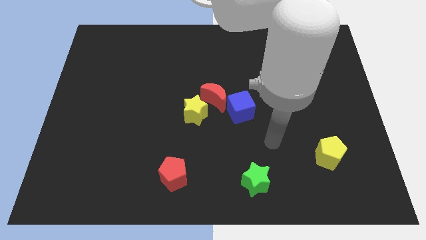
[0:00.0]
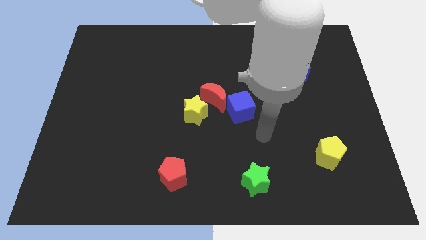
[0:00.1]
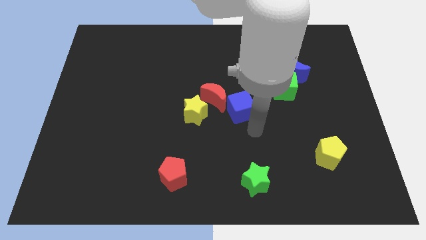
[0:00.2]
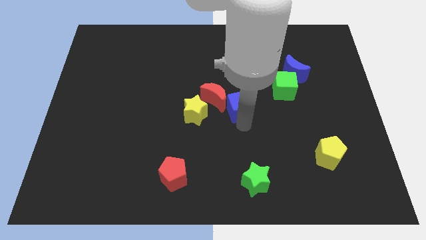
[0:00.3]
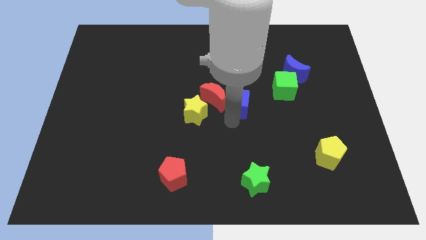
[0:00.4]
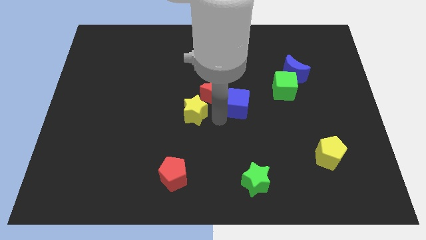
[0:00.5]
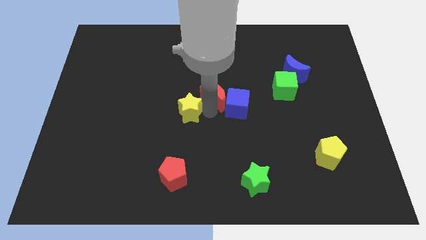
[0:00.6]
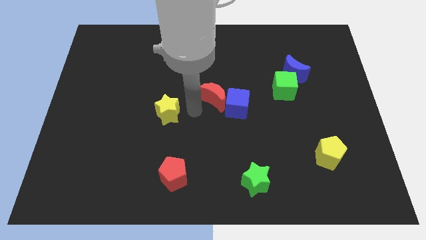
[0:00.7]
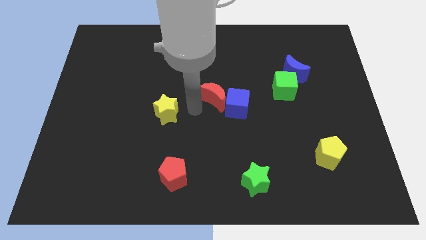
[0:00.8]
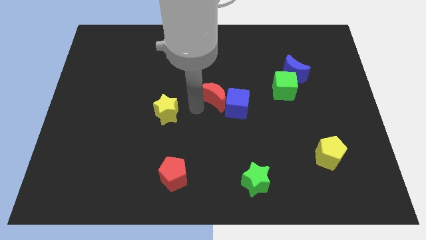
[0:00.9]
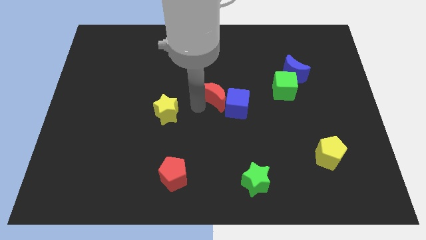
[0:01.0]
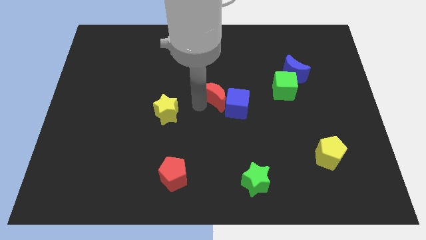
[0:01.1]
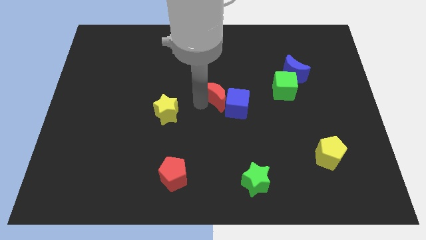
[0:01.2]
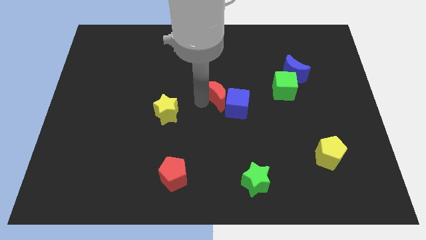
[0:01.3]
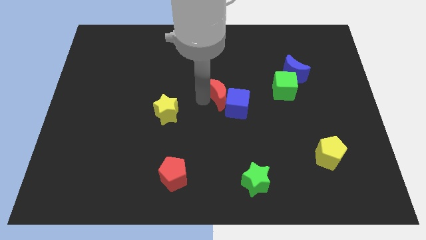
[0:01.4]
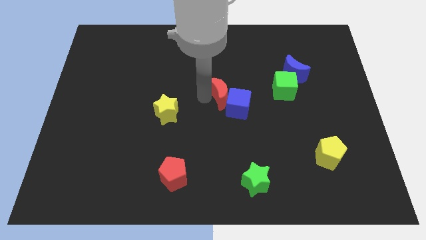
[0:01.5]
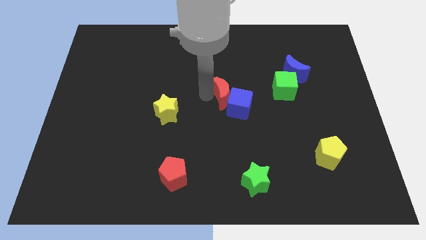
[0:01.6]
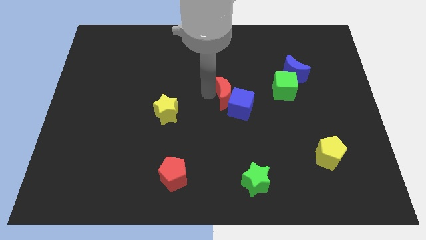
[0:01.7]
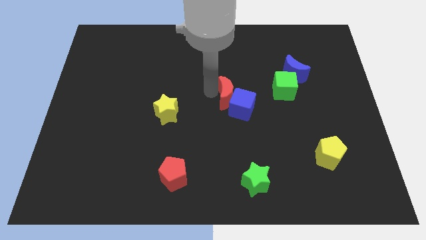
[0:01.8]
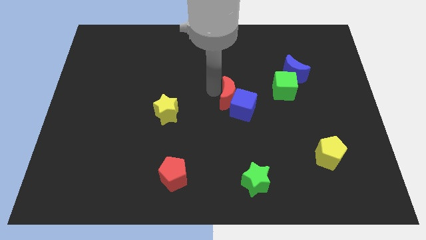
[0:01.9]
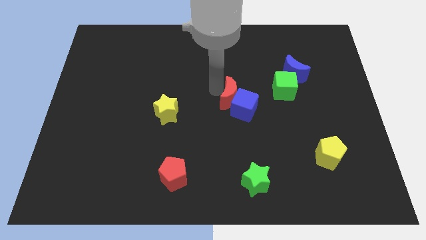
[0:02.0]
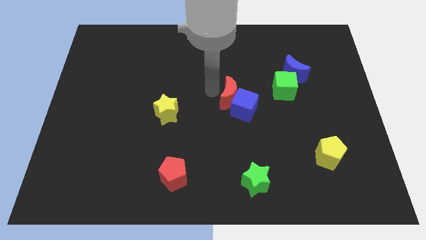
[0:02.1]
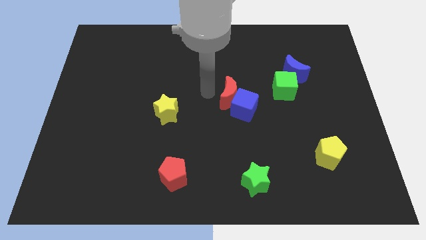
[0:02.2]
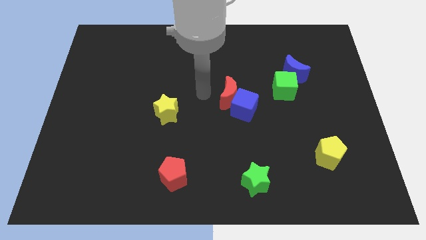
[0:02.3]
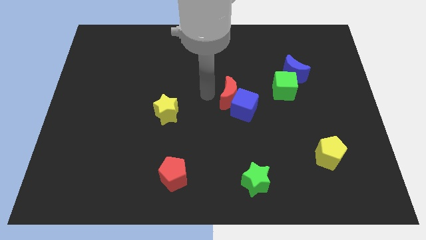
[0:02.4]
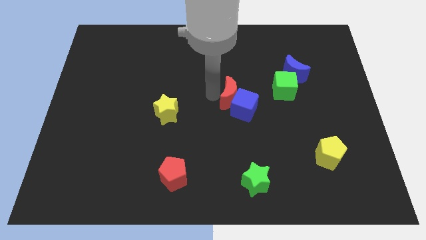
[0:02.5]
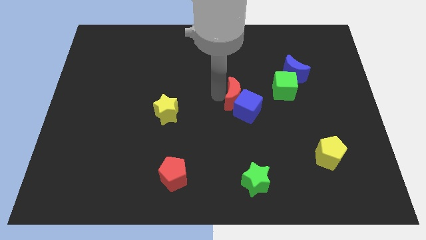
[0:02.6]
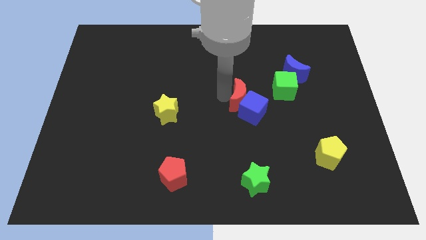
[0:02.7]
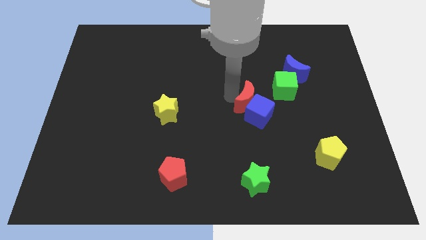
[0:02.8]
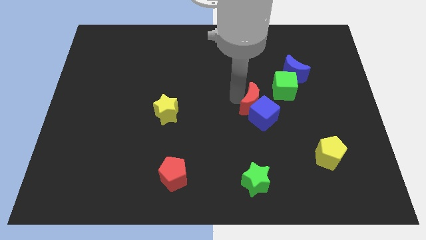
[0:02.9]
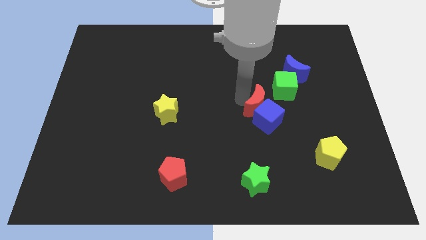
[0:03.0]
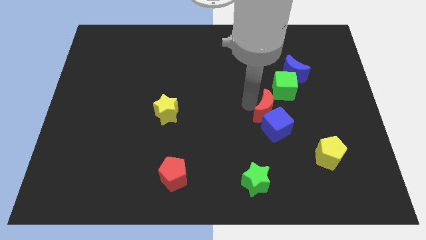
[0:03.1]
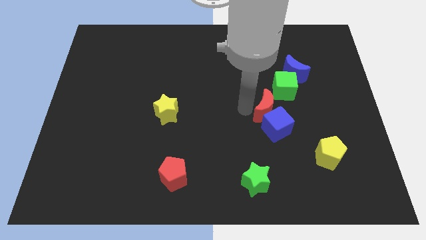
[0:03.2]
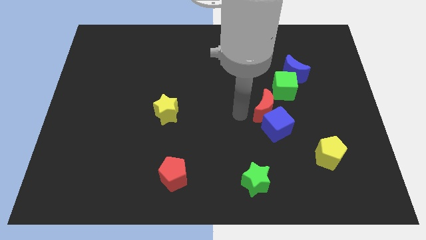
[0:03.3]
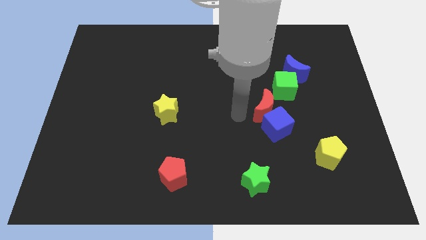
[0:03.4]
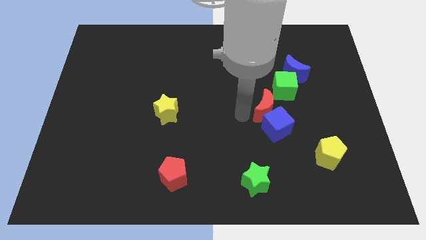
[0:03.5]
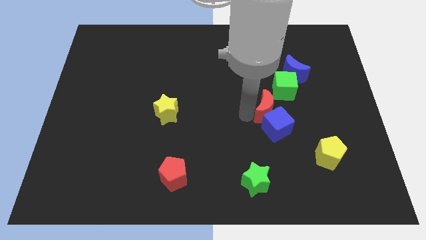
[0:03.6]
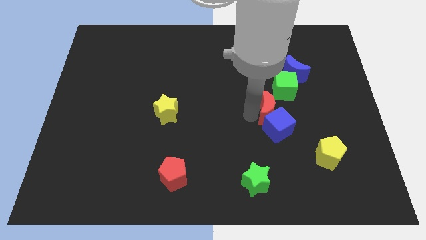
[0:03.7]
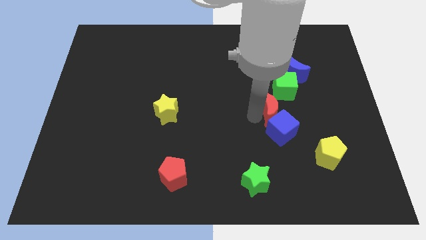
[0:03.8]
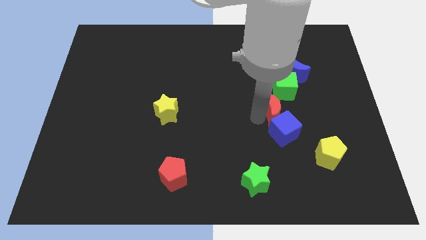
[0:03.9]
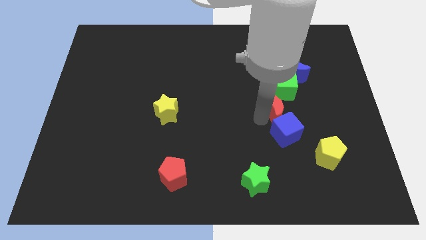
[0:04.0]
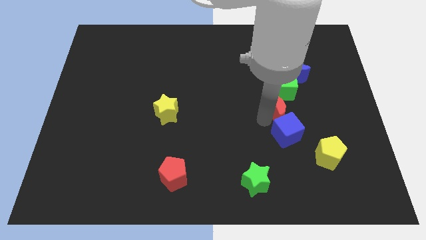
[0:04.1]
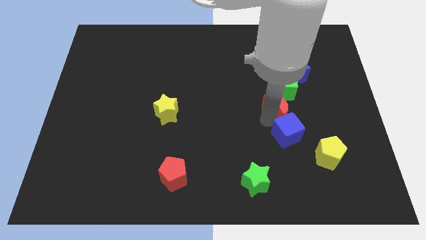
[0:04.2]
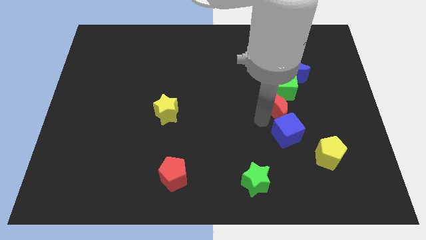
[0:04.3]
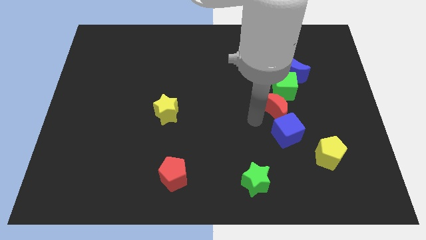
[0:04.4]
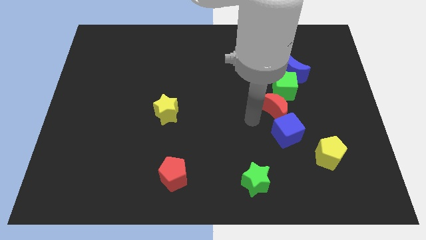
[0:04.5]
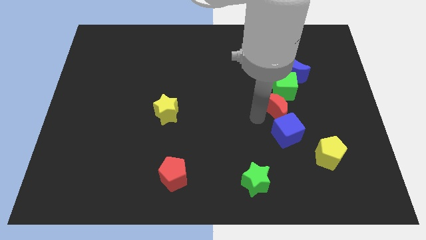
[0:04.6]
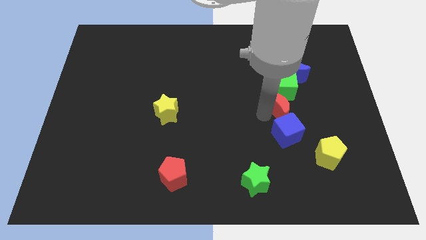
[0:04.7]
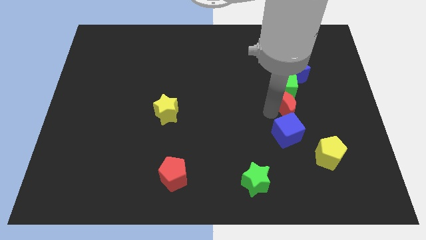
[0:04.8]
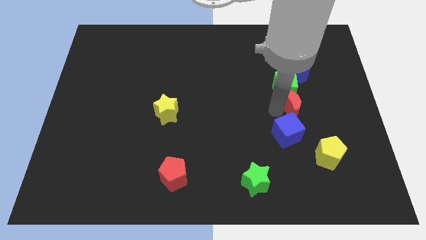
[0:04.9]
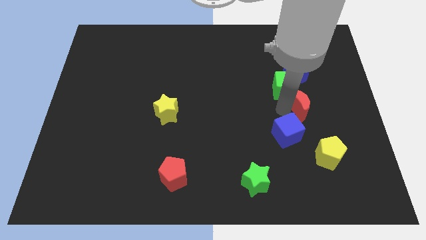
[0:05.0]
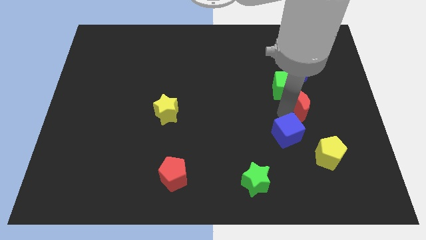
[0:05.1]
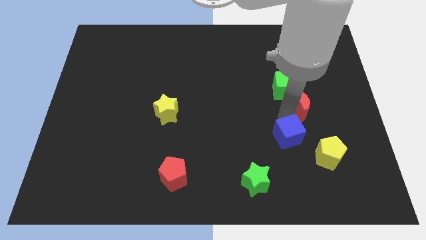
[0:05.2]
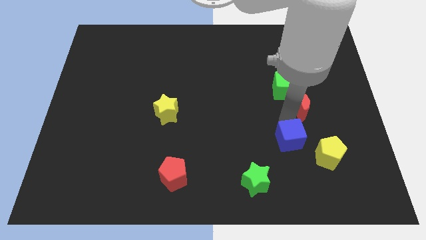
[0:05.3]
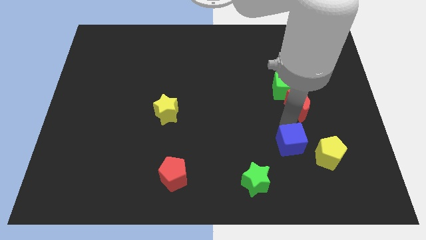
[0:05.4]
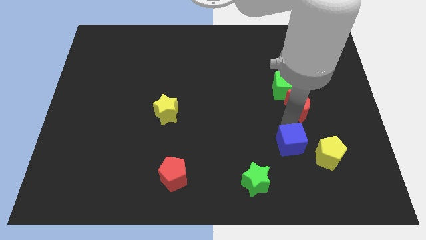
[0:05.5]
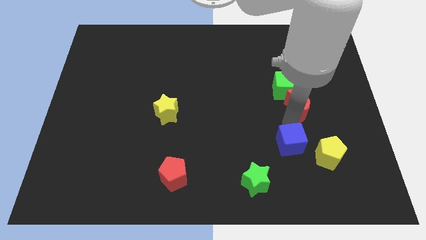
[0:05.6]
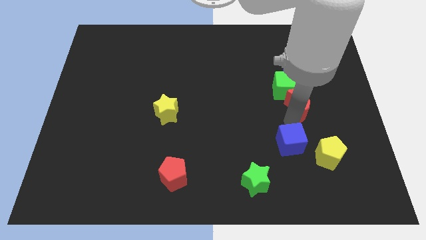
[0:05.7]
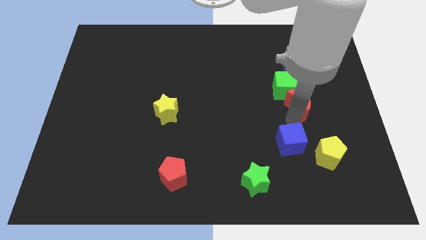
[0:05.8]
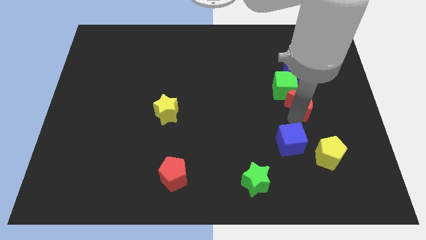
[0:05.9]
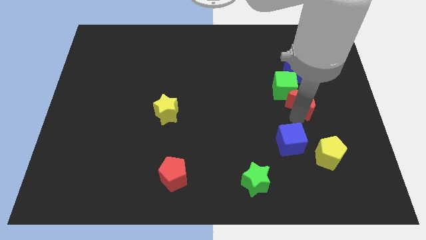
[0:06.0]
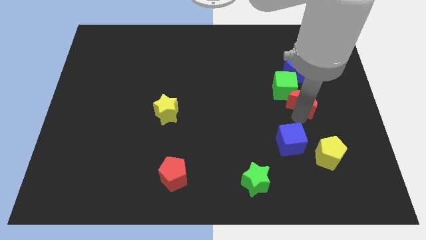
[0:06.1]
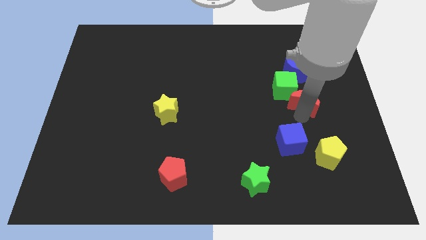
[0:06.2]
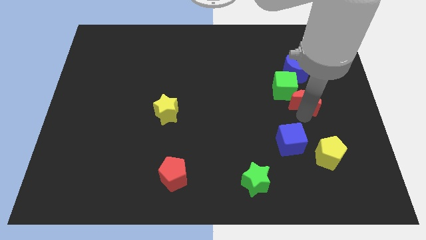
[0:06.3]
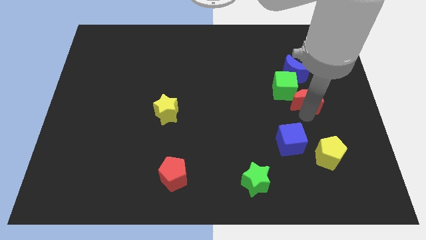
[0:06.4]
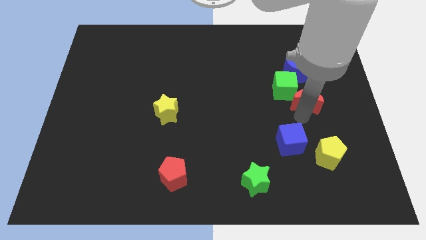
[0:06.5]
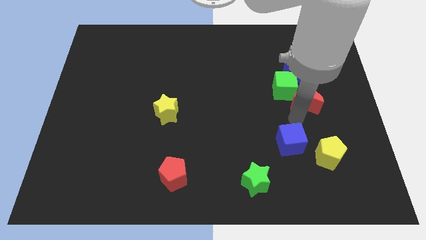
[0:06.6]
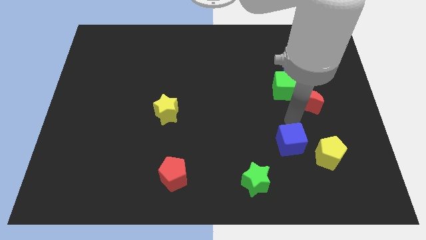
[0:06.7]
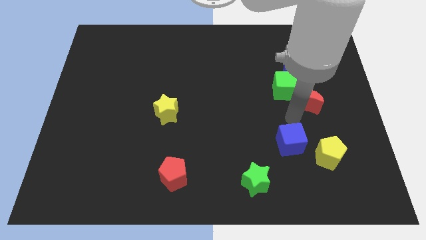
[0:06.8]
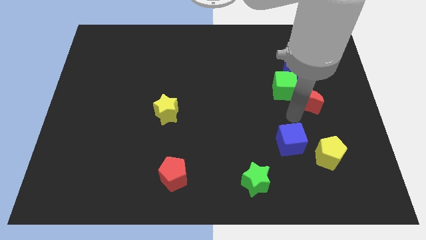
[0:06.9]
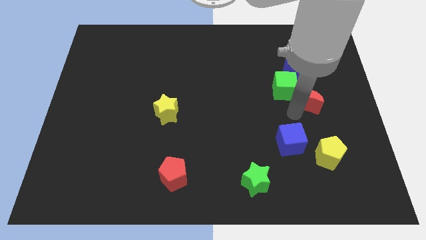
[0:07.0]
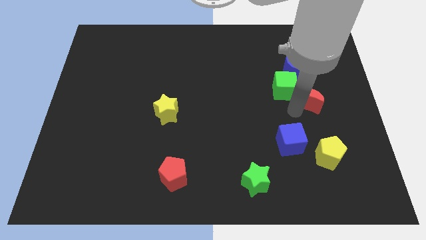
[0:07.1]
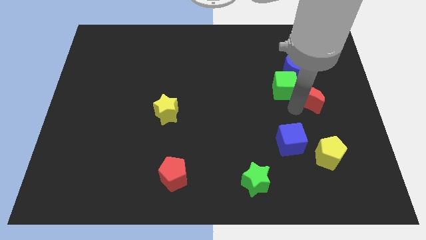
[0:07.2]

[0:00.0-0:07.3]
move the red moon to the bottom right side of the blue moon

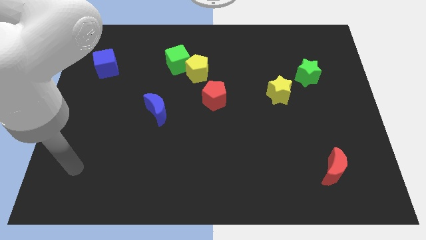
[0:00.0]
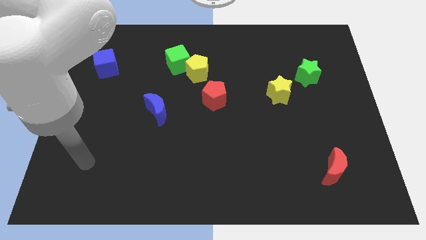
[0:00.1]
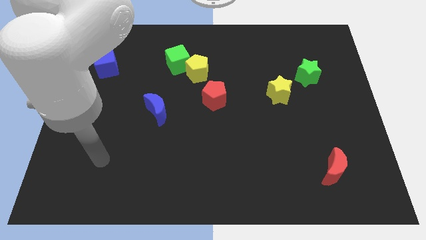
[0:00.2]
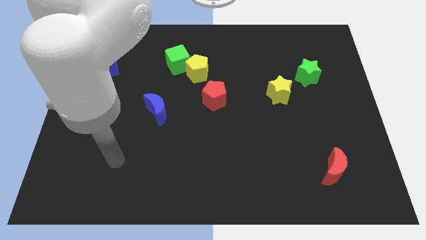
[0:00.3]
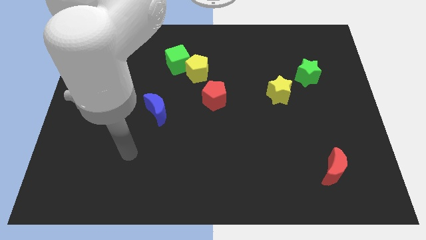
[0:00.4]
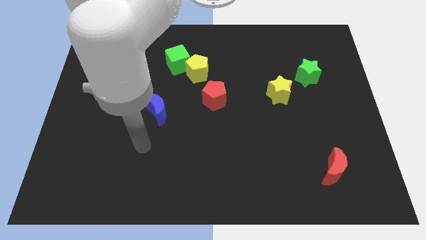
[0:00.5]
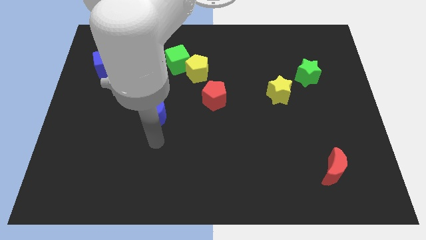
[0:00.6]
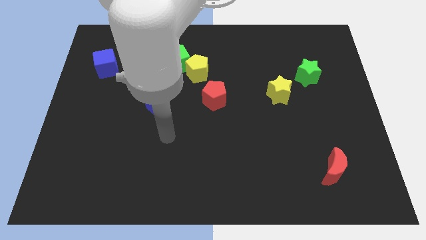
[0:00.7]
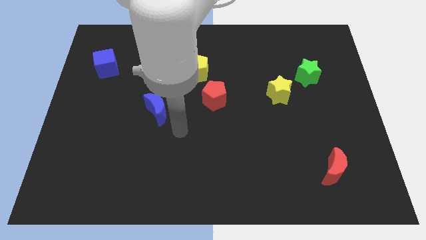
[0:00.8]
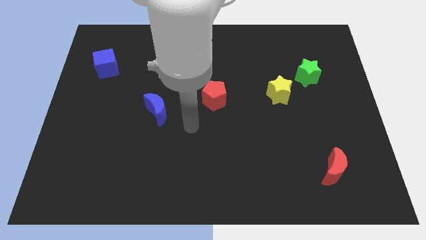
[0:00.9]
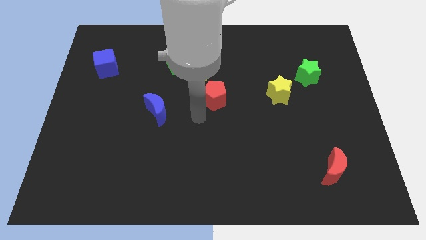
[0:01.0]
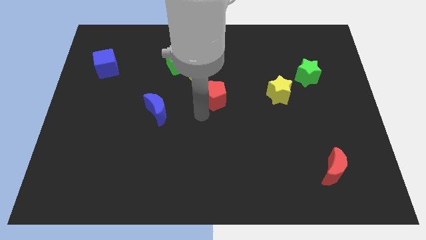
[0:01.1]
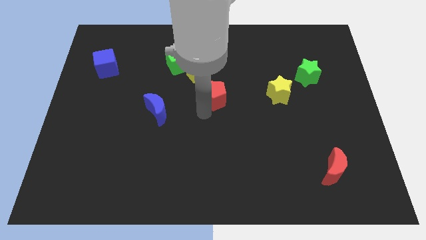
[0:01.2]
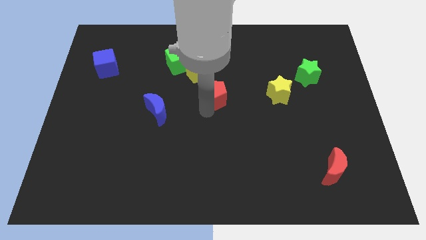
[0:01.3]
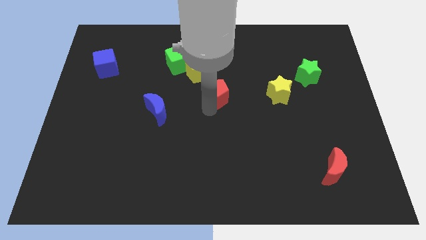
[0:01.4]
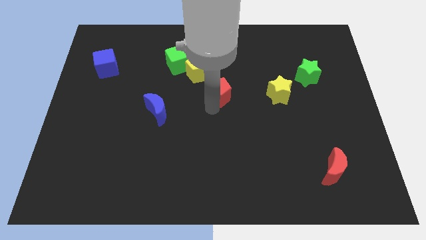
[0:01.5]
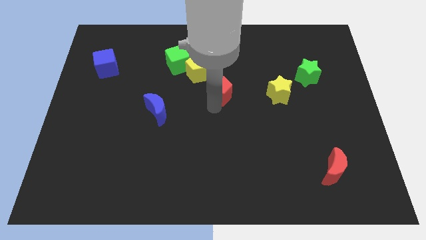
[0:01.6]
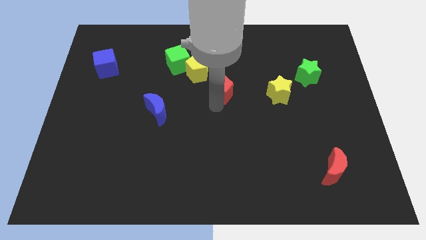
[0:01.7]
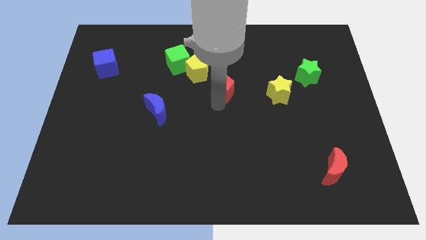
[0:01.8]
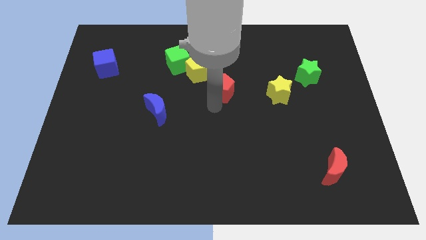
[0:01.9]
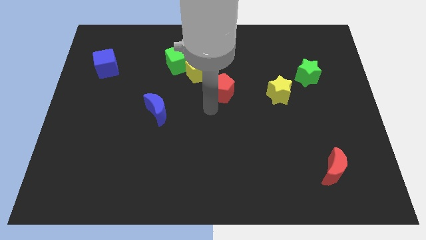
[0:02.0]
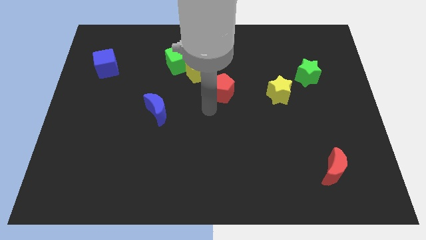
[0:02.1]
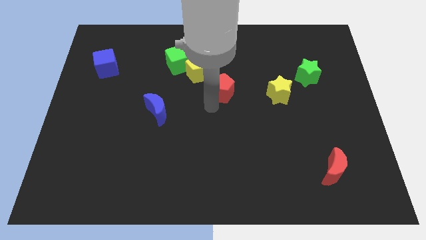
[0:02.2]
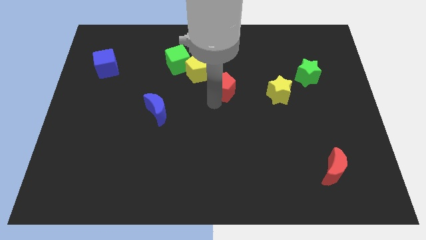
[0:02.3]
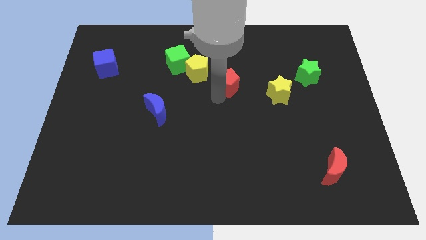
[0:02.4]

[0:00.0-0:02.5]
move the red pentagon to the right side of the yellow pentagon
